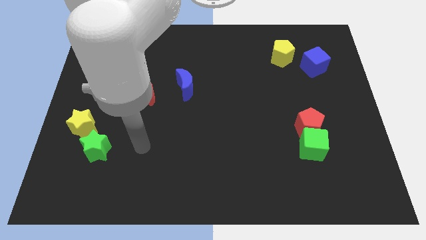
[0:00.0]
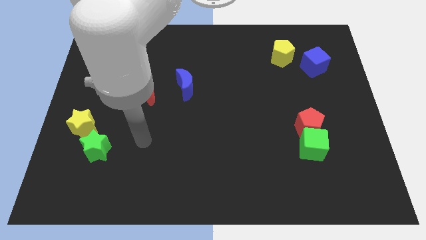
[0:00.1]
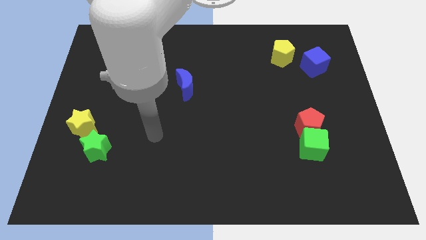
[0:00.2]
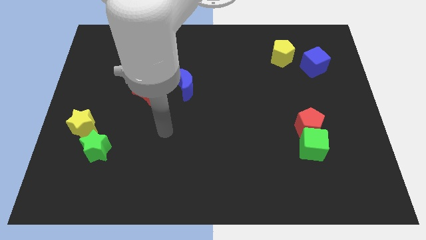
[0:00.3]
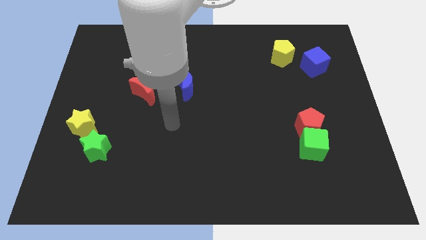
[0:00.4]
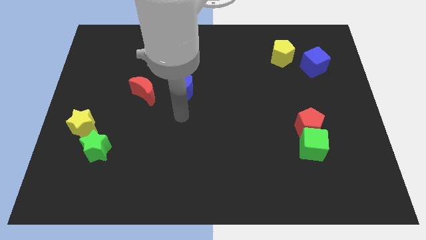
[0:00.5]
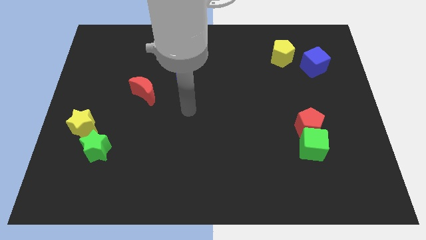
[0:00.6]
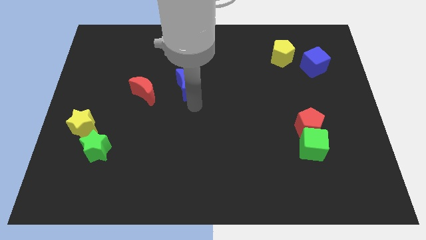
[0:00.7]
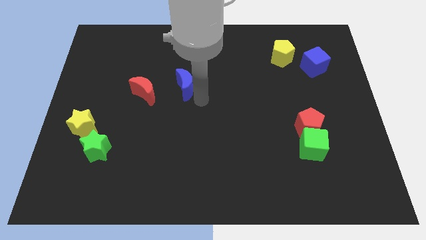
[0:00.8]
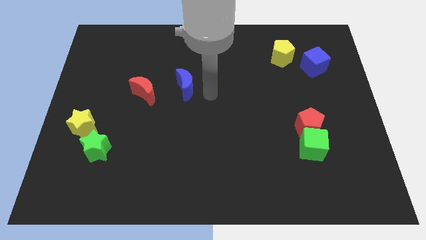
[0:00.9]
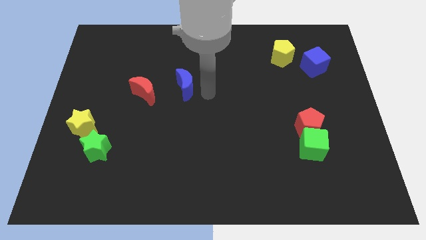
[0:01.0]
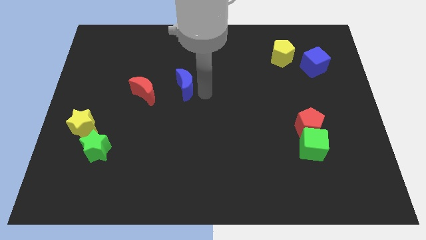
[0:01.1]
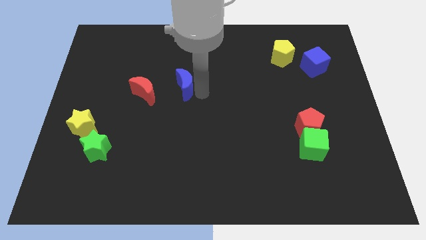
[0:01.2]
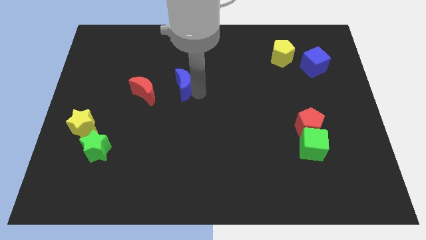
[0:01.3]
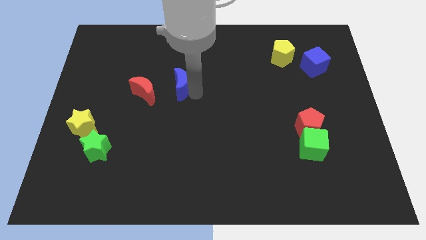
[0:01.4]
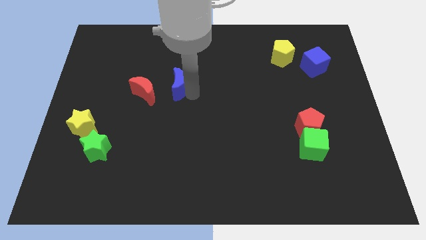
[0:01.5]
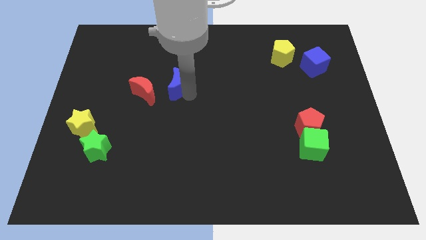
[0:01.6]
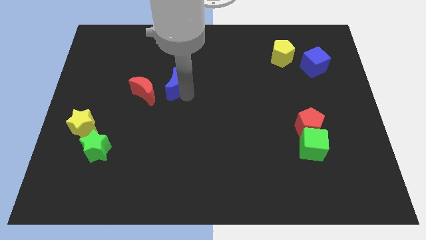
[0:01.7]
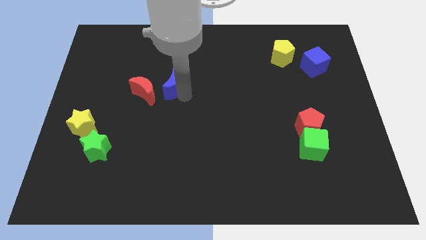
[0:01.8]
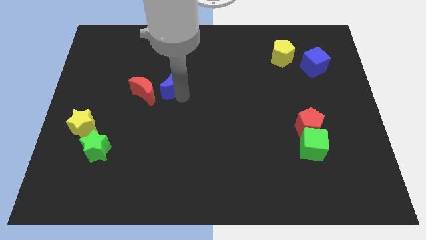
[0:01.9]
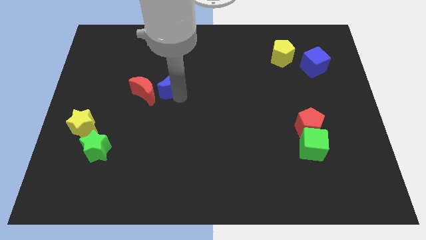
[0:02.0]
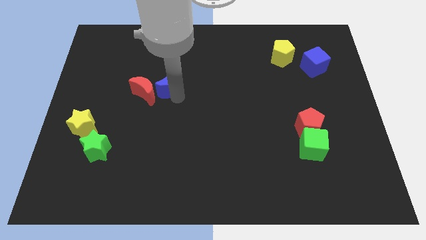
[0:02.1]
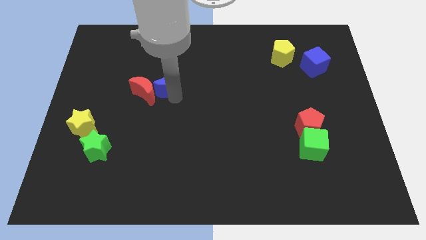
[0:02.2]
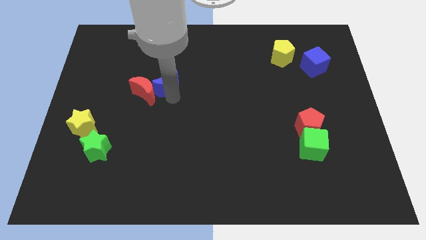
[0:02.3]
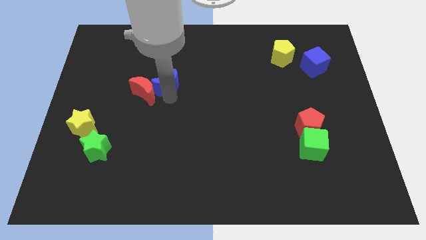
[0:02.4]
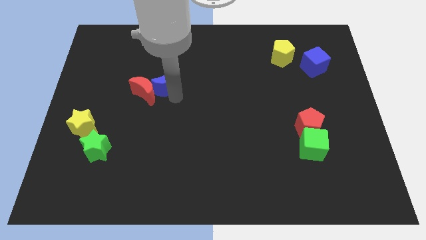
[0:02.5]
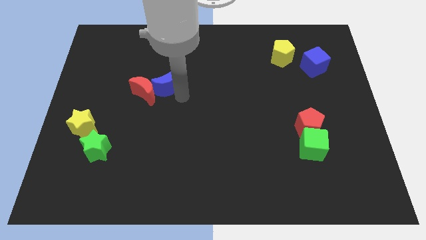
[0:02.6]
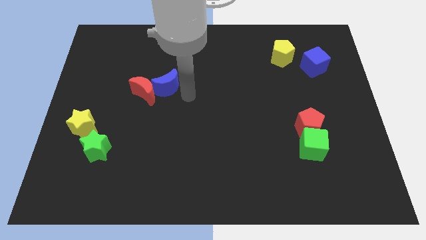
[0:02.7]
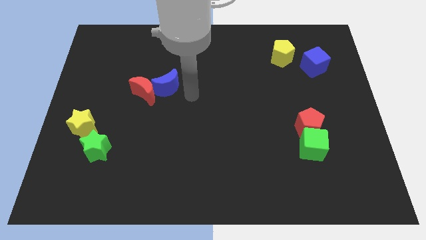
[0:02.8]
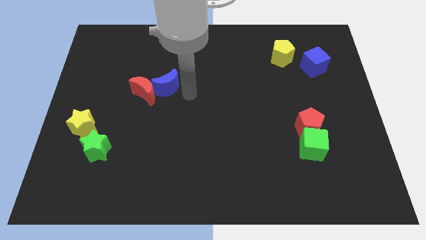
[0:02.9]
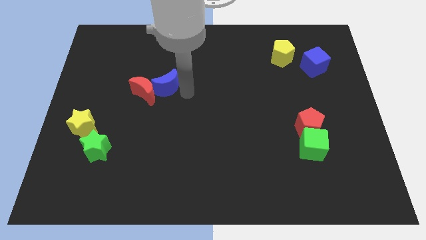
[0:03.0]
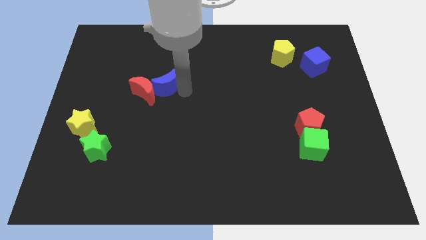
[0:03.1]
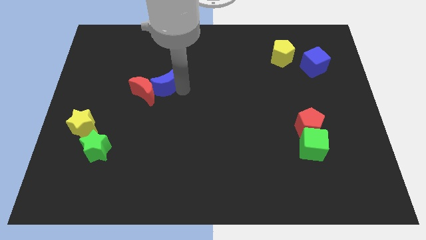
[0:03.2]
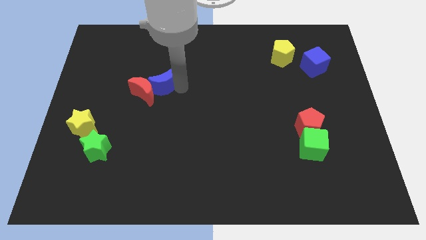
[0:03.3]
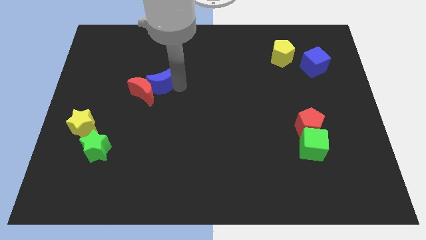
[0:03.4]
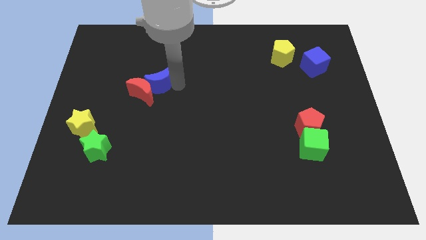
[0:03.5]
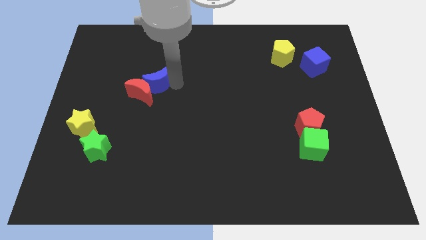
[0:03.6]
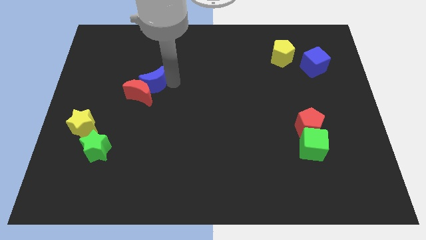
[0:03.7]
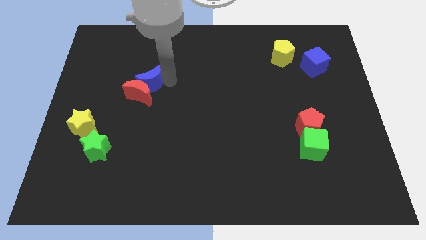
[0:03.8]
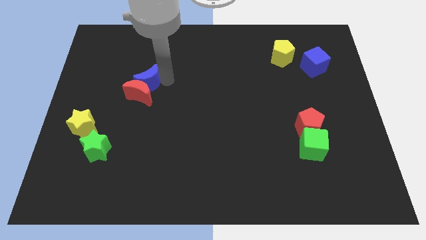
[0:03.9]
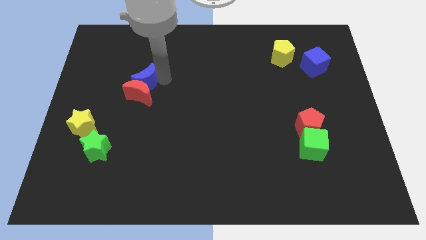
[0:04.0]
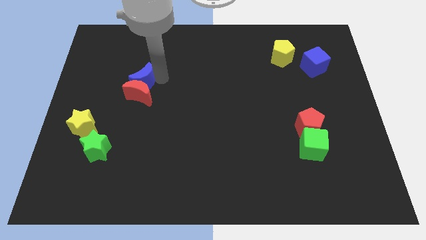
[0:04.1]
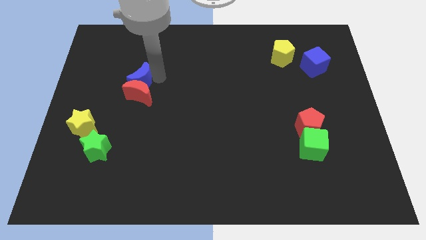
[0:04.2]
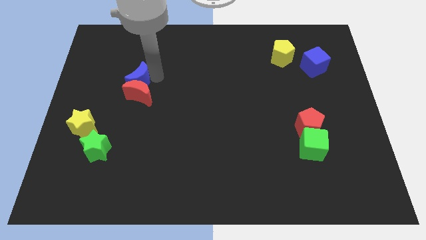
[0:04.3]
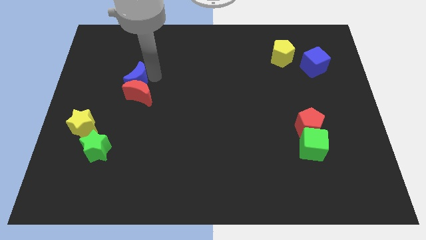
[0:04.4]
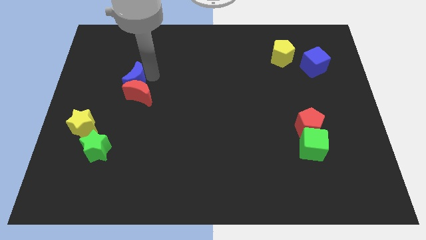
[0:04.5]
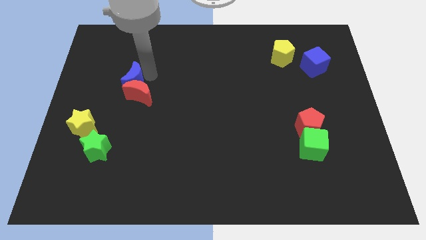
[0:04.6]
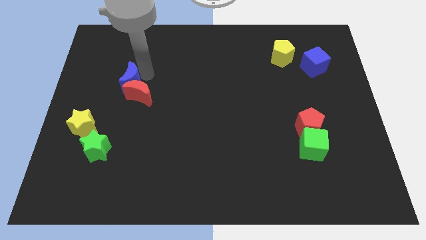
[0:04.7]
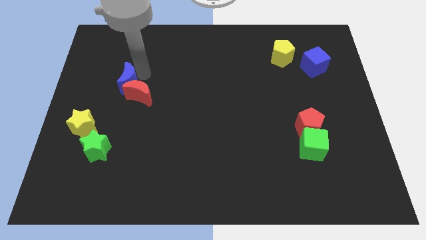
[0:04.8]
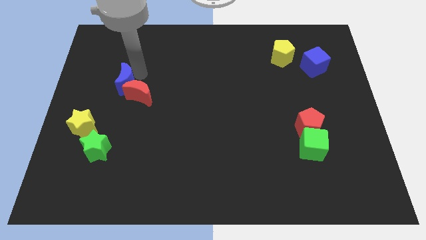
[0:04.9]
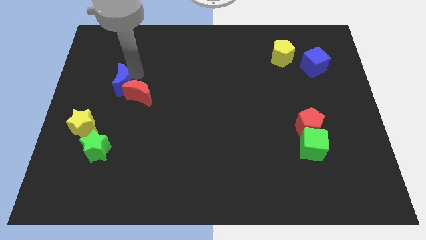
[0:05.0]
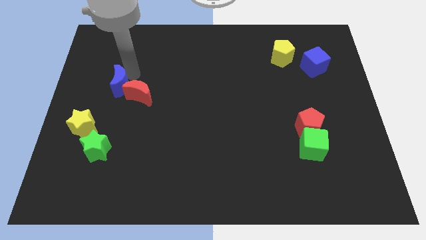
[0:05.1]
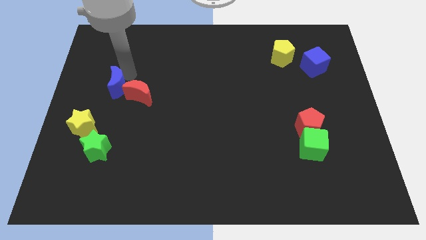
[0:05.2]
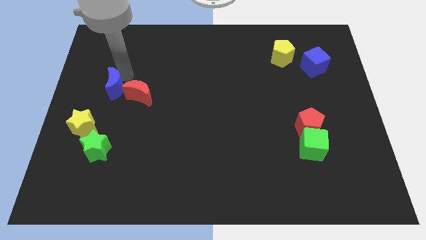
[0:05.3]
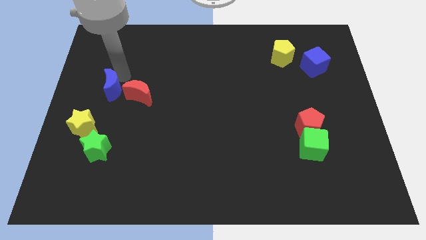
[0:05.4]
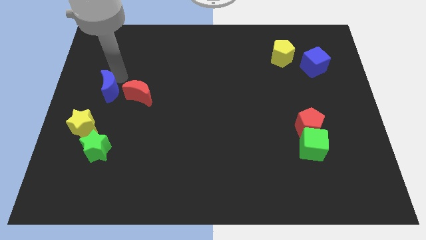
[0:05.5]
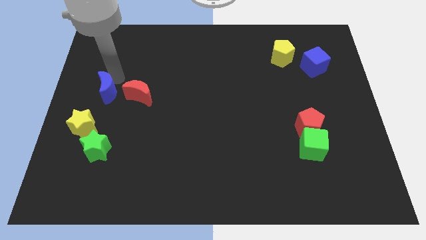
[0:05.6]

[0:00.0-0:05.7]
move the blue moon to the center left

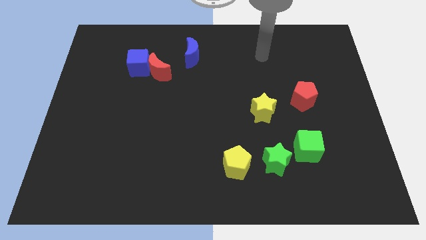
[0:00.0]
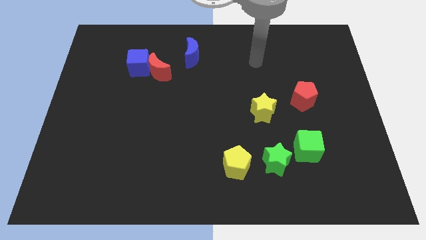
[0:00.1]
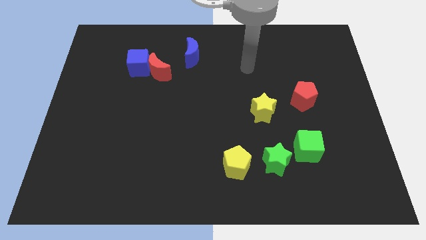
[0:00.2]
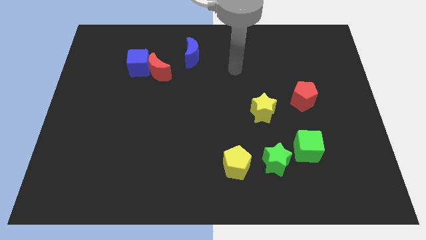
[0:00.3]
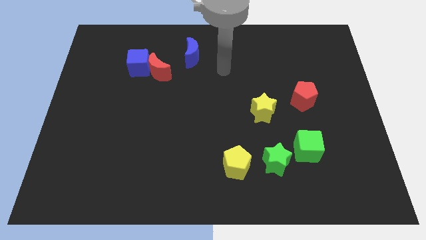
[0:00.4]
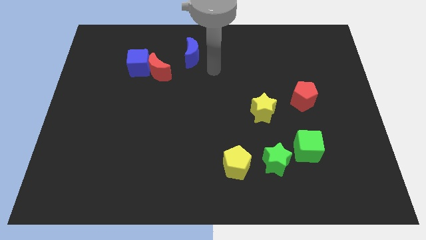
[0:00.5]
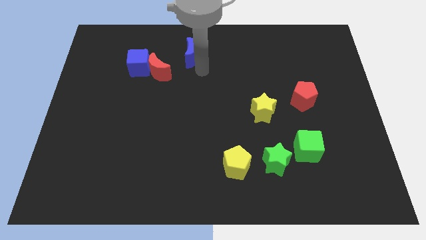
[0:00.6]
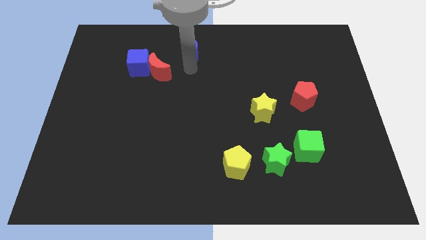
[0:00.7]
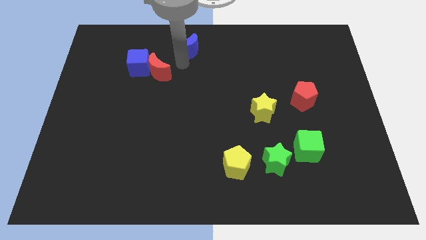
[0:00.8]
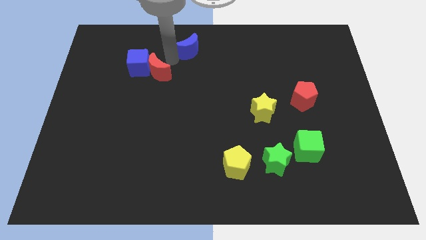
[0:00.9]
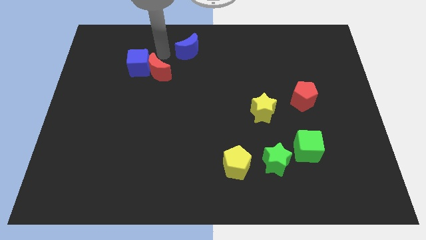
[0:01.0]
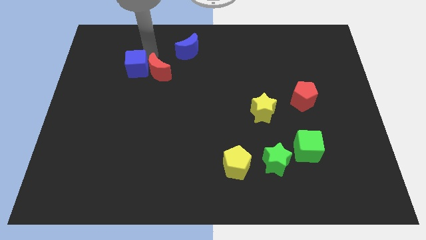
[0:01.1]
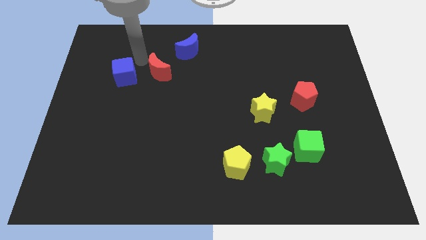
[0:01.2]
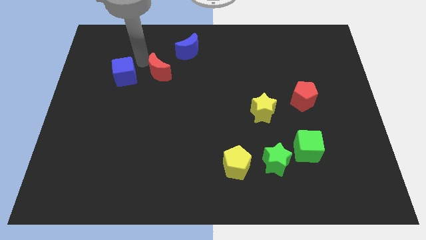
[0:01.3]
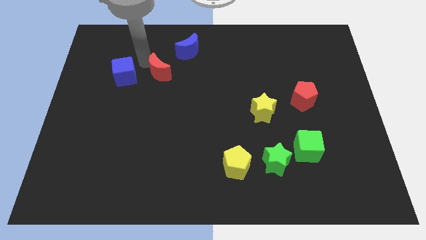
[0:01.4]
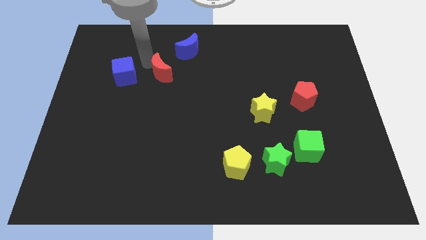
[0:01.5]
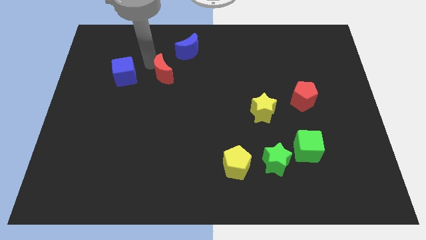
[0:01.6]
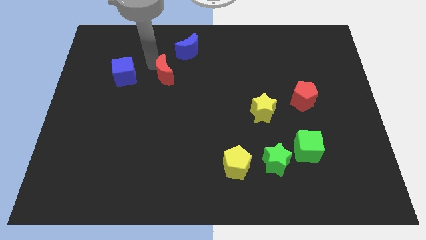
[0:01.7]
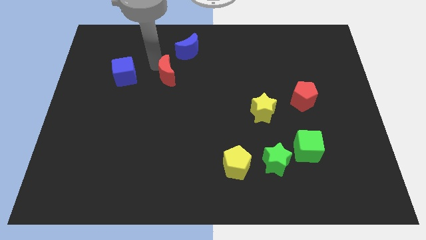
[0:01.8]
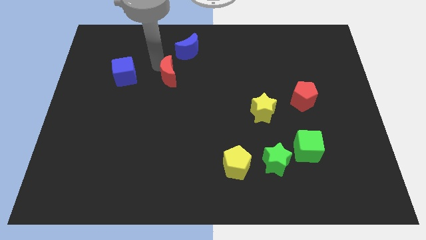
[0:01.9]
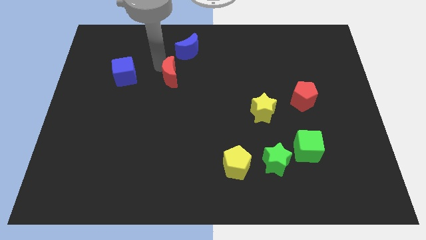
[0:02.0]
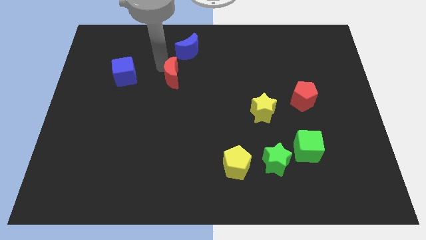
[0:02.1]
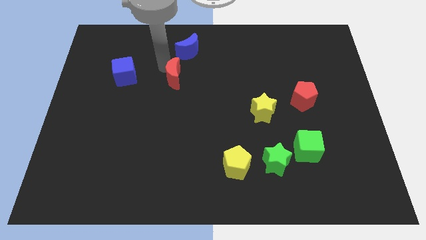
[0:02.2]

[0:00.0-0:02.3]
push the red moon to the center
